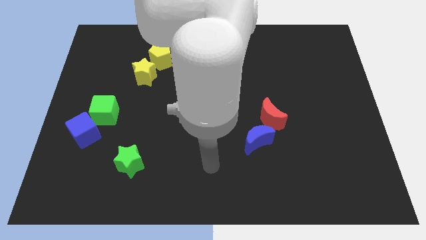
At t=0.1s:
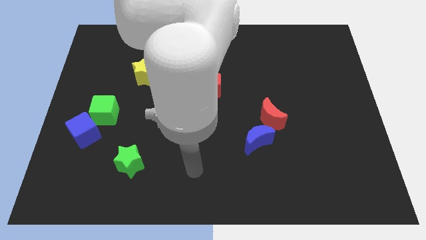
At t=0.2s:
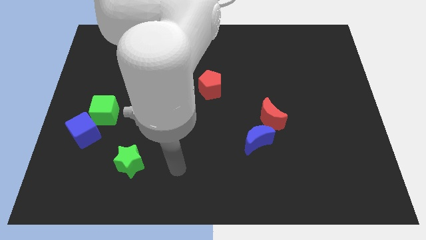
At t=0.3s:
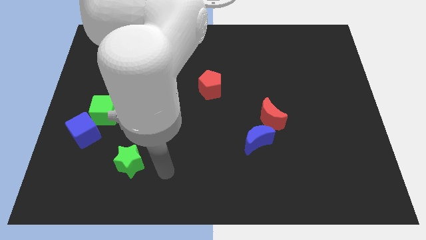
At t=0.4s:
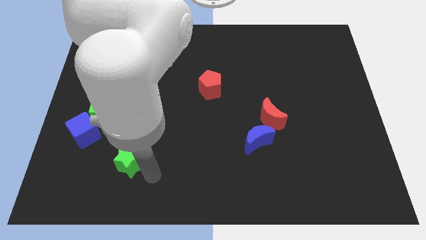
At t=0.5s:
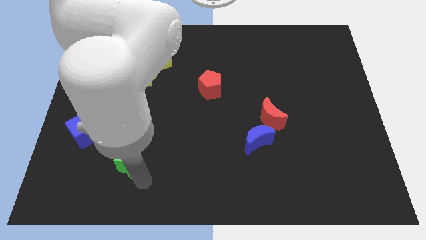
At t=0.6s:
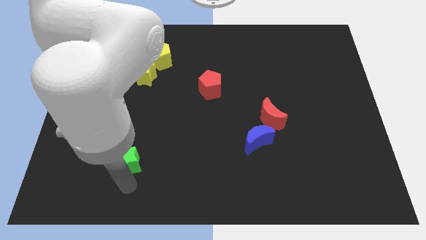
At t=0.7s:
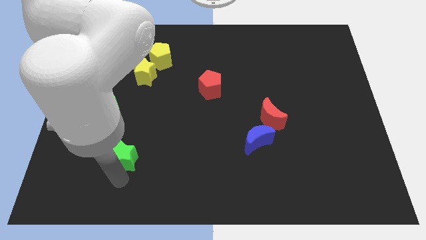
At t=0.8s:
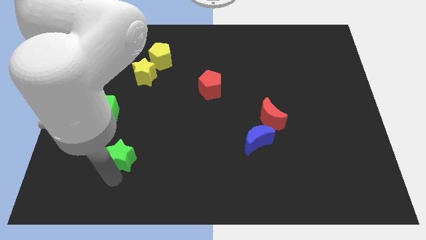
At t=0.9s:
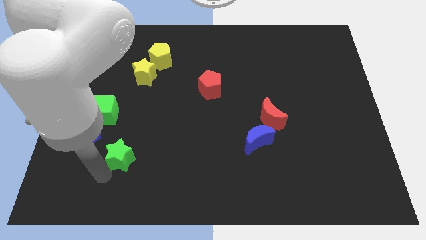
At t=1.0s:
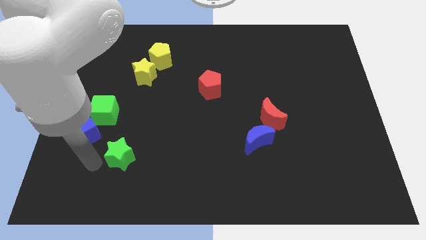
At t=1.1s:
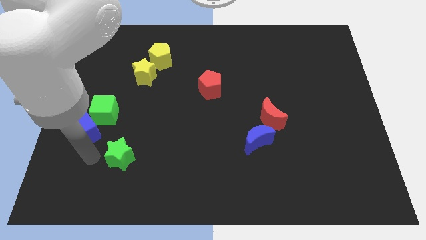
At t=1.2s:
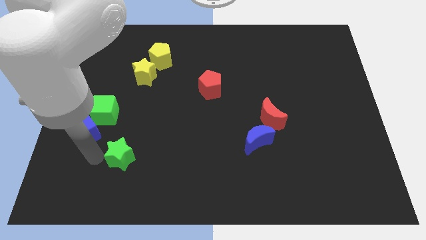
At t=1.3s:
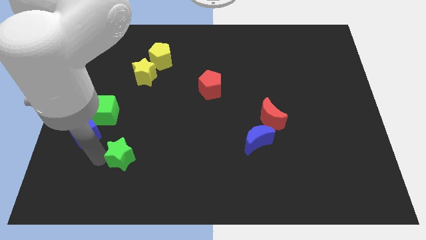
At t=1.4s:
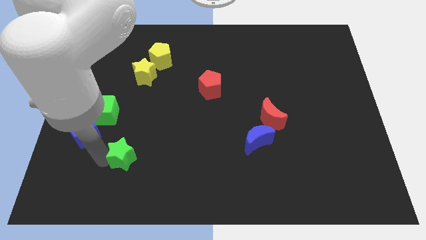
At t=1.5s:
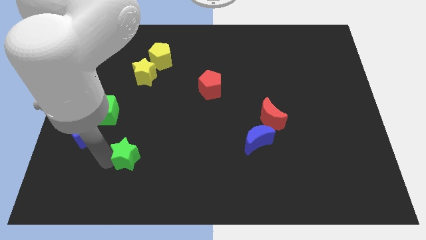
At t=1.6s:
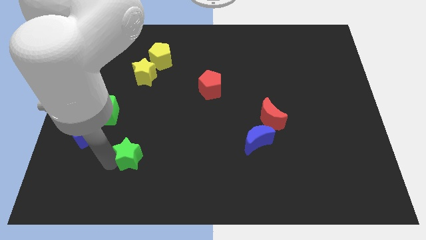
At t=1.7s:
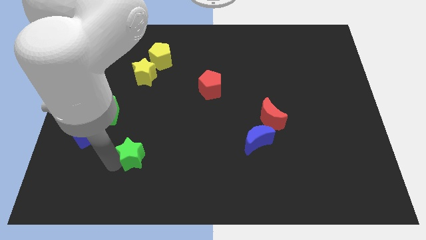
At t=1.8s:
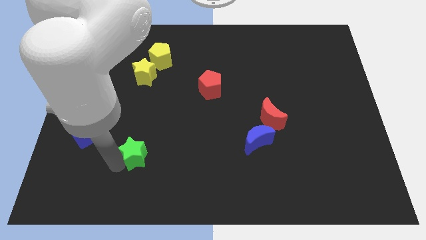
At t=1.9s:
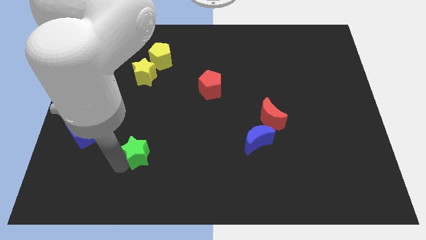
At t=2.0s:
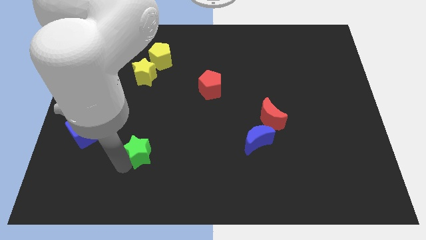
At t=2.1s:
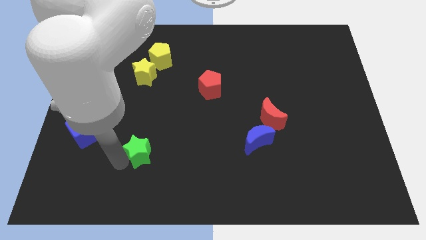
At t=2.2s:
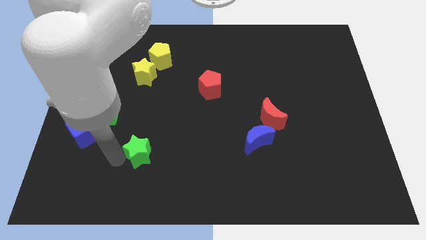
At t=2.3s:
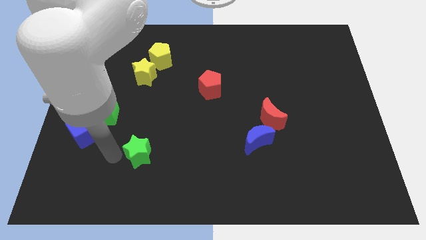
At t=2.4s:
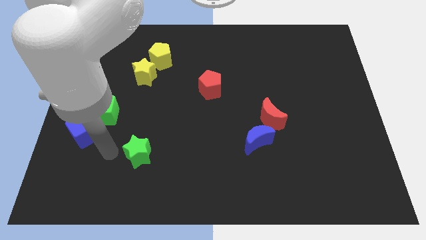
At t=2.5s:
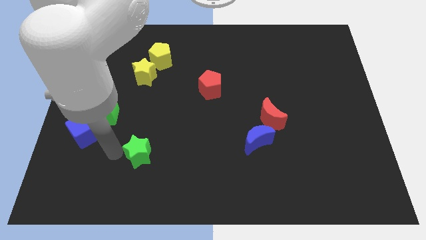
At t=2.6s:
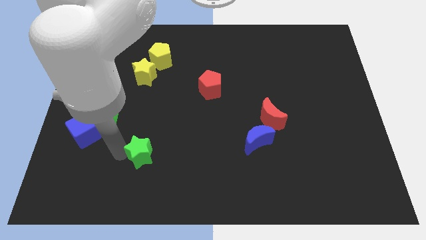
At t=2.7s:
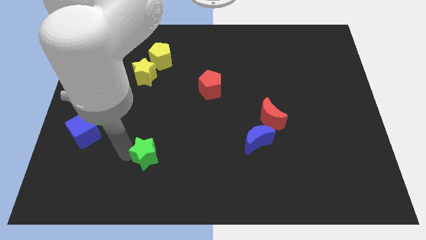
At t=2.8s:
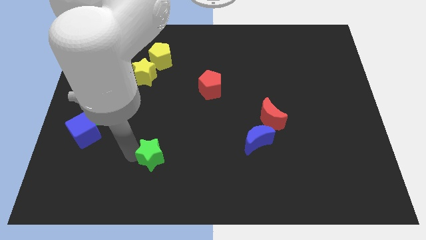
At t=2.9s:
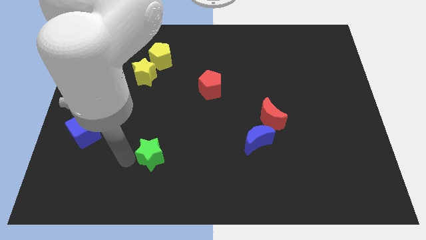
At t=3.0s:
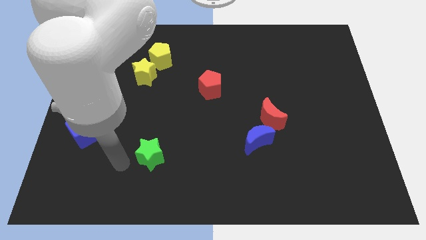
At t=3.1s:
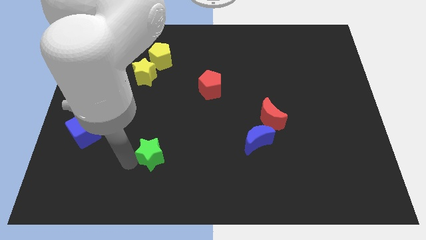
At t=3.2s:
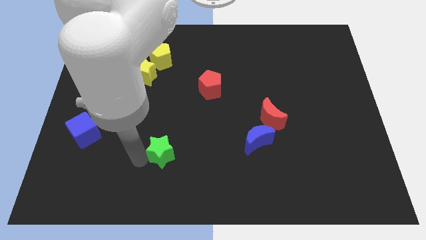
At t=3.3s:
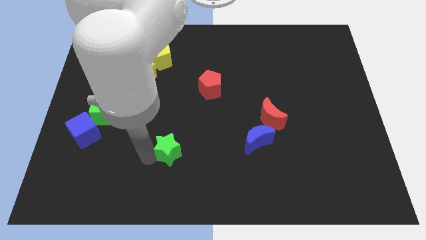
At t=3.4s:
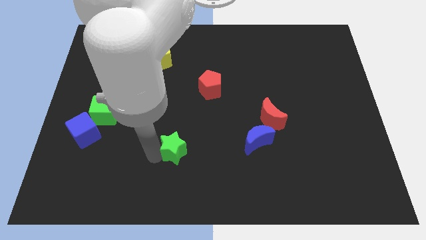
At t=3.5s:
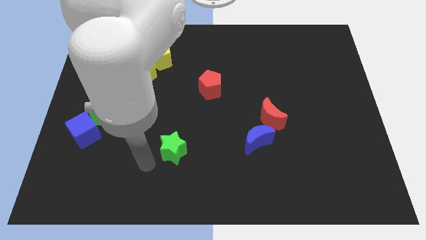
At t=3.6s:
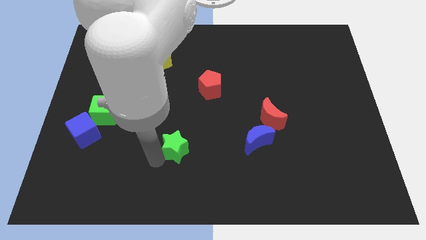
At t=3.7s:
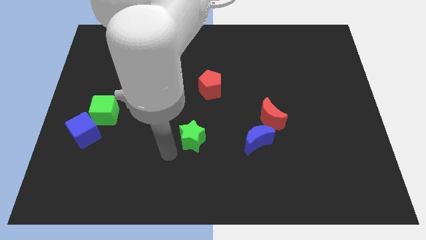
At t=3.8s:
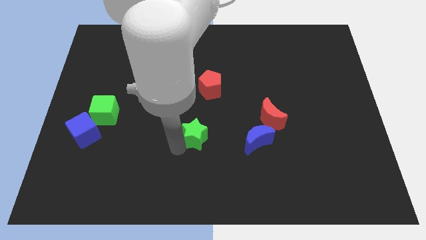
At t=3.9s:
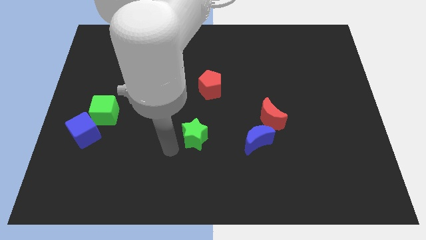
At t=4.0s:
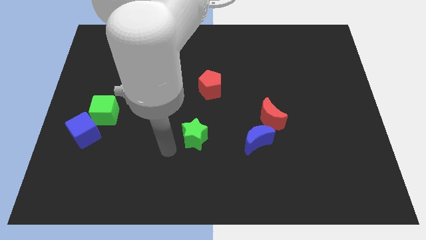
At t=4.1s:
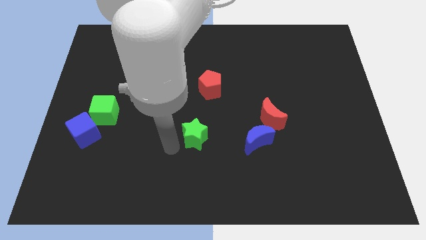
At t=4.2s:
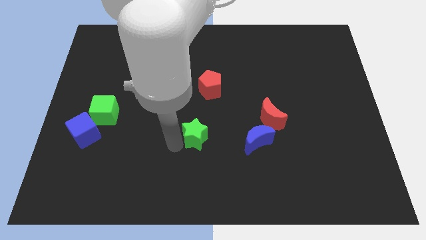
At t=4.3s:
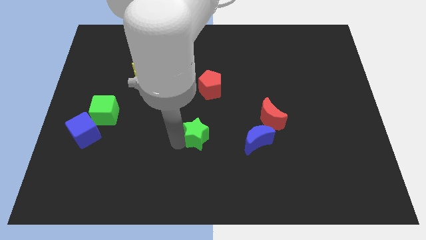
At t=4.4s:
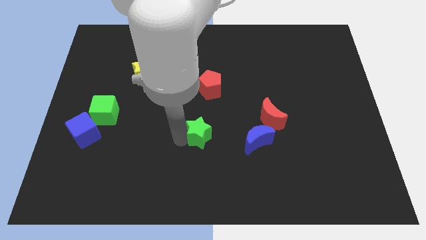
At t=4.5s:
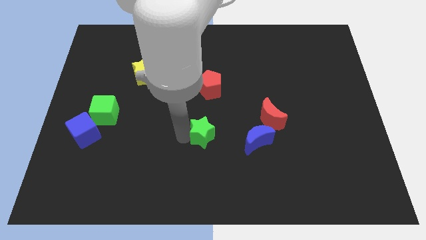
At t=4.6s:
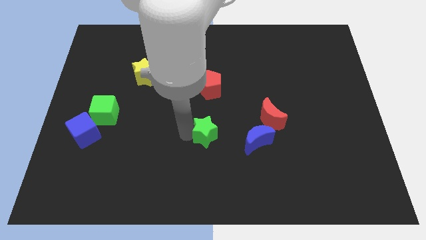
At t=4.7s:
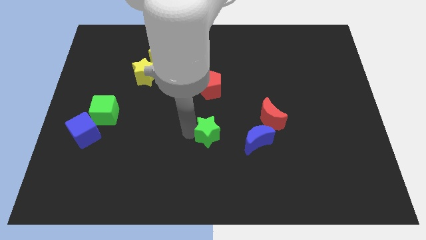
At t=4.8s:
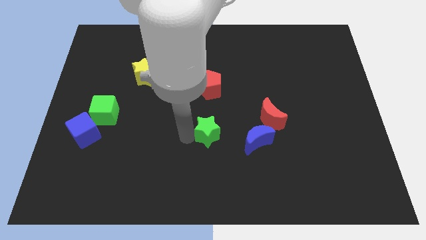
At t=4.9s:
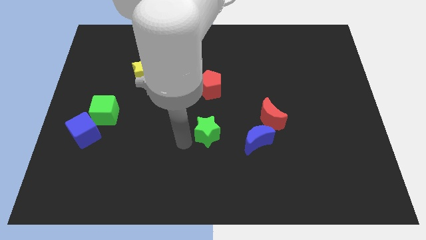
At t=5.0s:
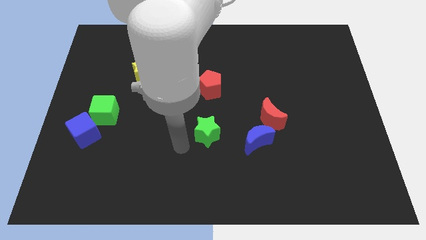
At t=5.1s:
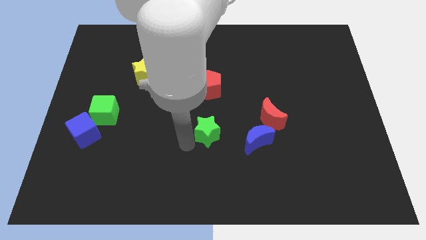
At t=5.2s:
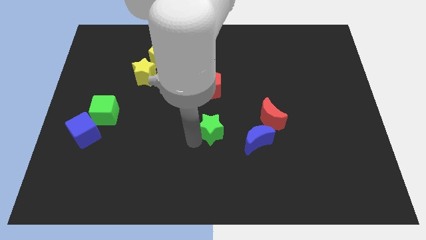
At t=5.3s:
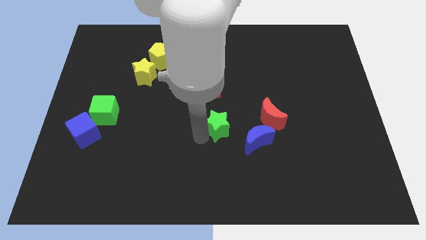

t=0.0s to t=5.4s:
move the green star to the top left of the blue moon

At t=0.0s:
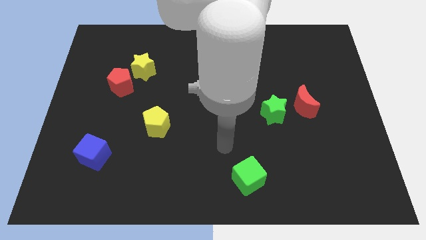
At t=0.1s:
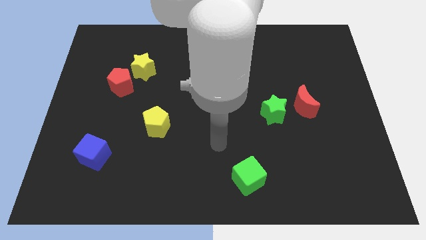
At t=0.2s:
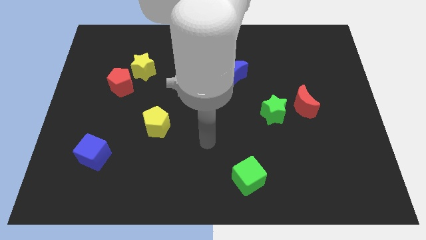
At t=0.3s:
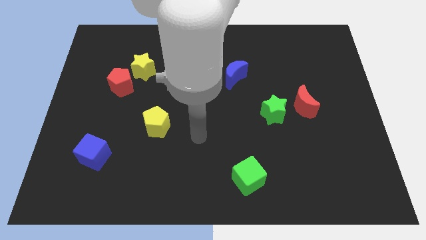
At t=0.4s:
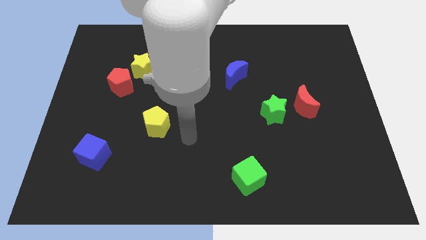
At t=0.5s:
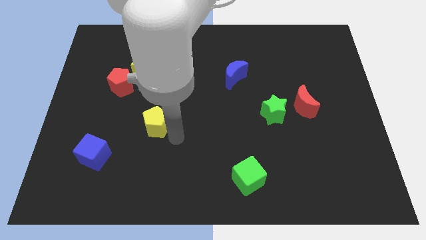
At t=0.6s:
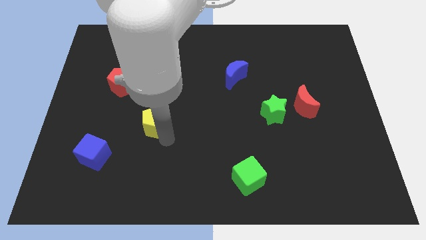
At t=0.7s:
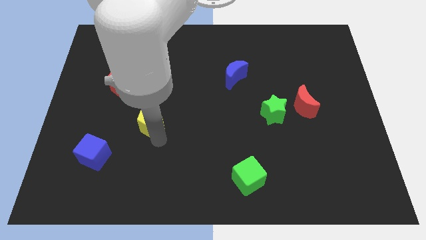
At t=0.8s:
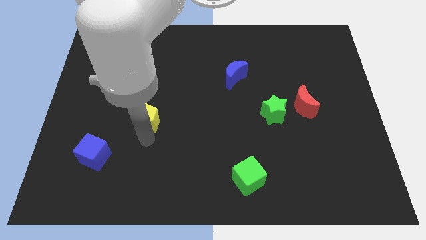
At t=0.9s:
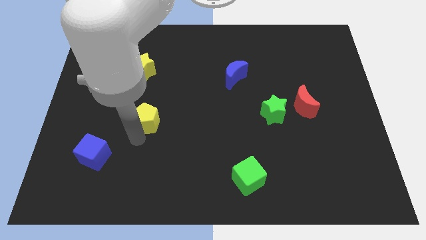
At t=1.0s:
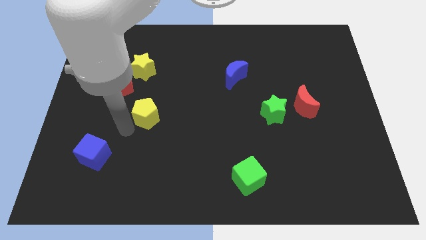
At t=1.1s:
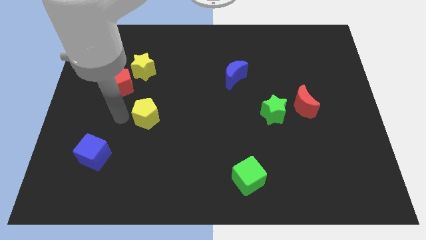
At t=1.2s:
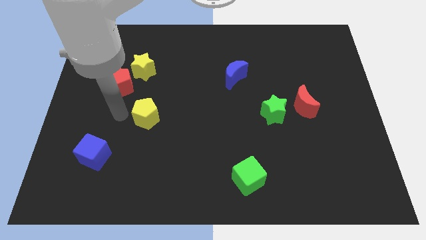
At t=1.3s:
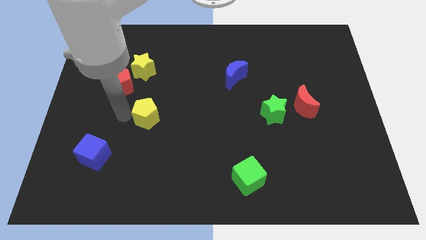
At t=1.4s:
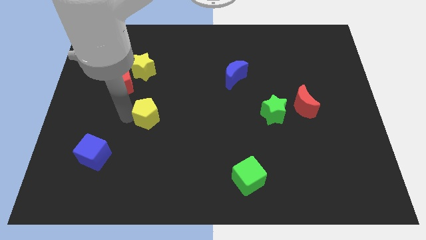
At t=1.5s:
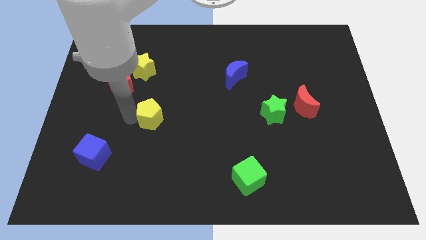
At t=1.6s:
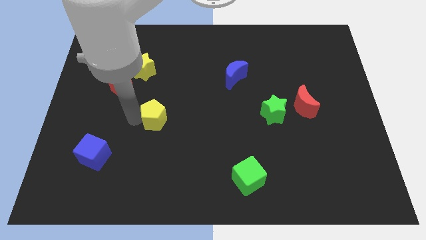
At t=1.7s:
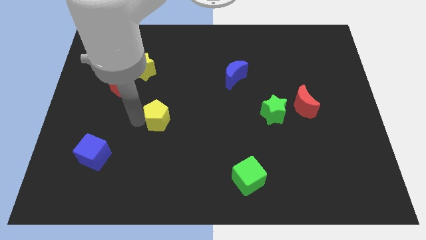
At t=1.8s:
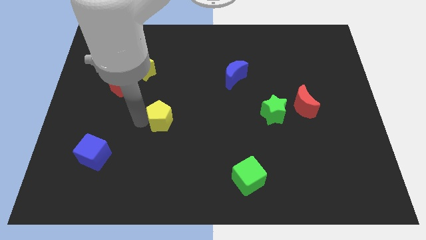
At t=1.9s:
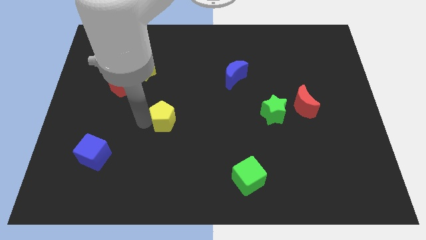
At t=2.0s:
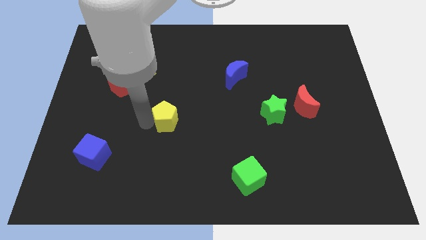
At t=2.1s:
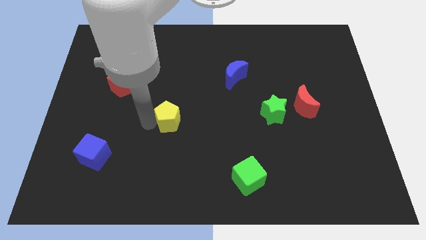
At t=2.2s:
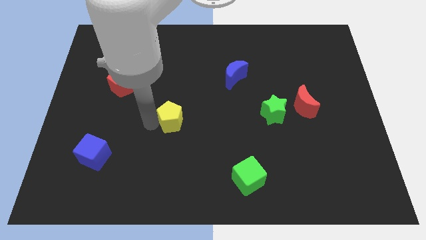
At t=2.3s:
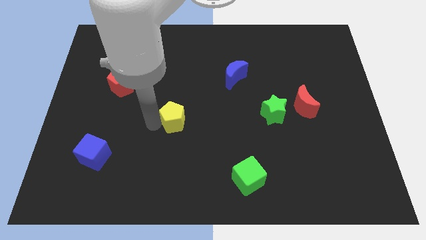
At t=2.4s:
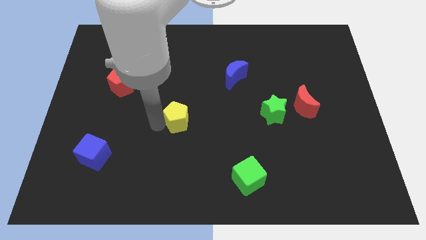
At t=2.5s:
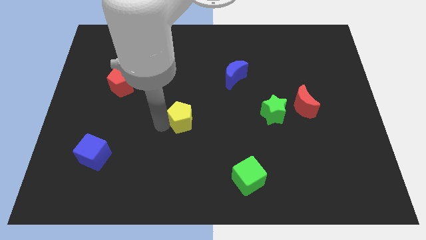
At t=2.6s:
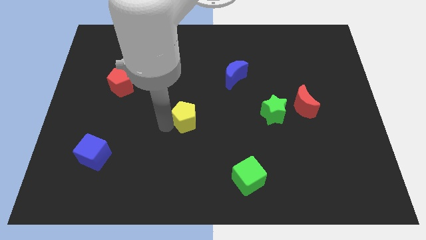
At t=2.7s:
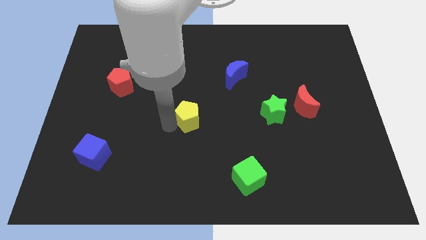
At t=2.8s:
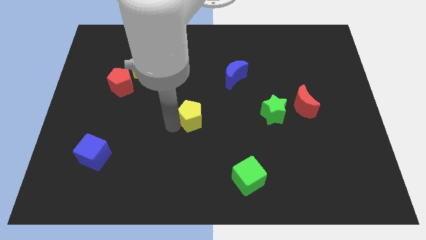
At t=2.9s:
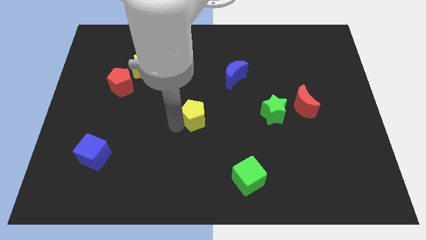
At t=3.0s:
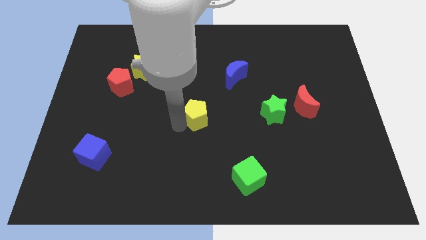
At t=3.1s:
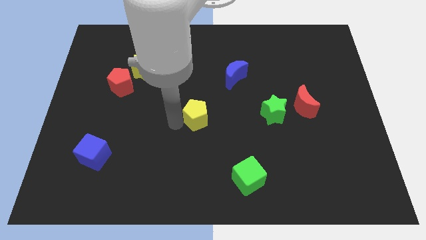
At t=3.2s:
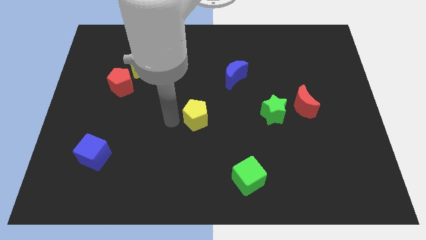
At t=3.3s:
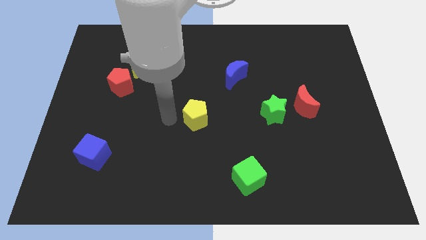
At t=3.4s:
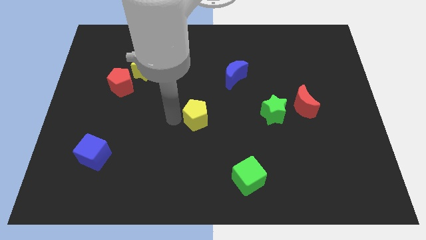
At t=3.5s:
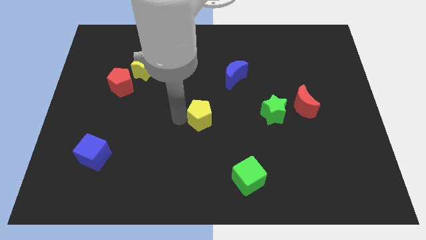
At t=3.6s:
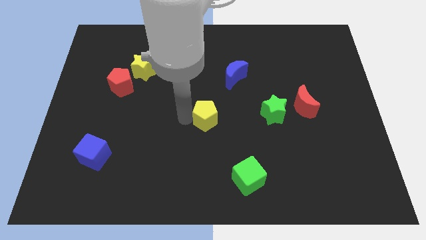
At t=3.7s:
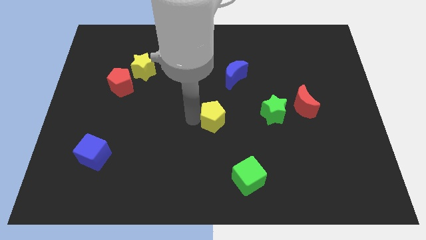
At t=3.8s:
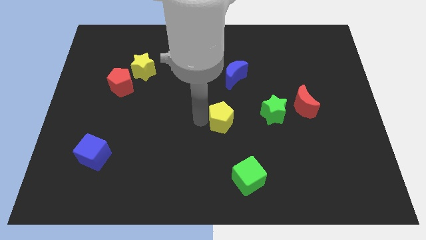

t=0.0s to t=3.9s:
slide the yellow pentagon to the bottom of the blue moon
